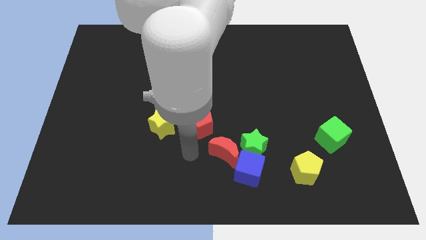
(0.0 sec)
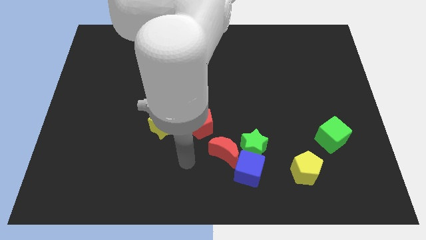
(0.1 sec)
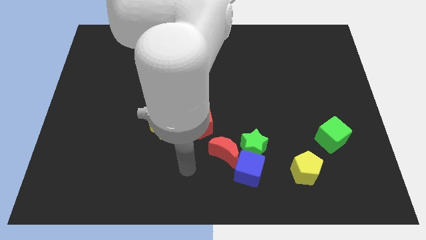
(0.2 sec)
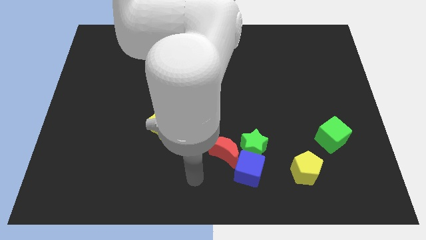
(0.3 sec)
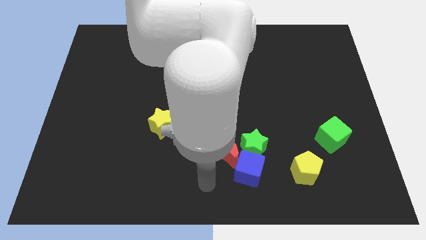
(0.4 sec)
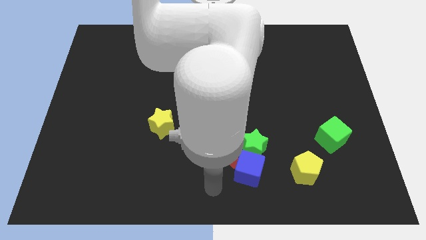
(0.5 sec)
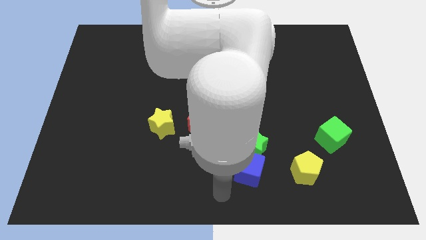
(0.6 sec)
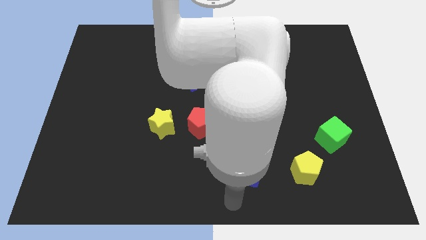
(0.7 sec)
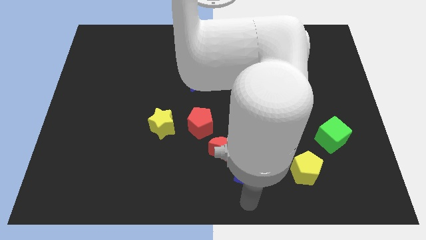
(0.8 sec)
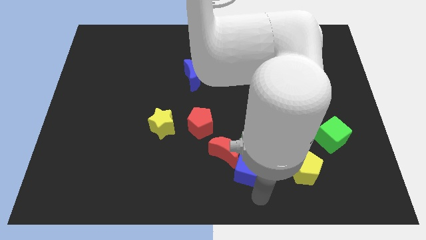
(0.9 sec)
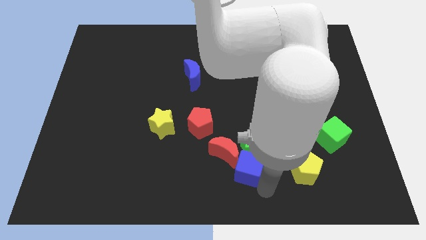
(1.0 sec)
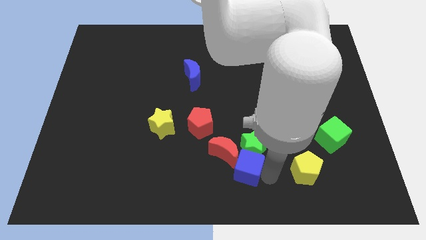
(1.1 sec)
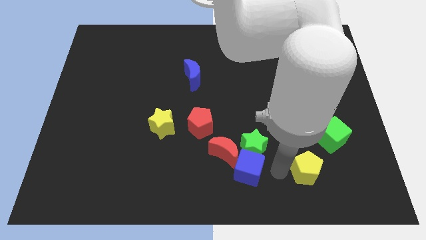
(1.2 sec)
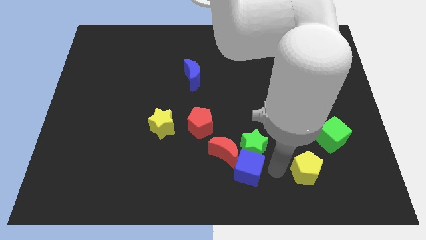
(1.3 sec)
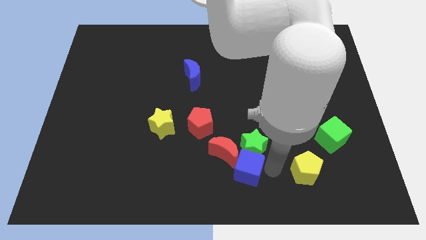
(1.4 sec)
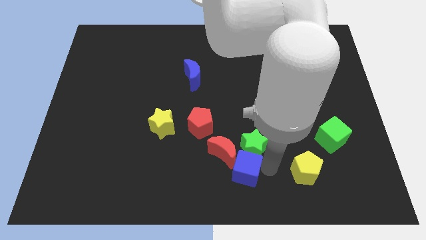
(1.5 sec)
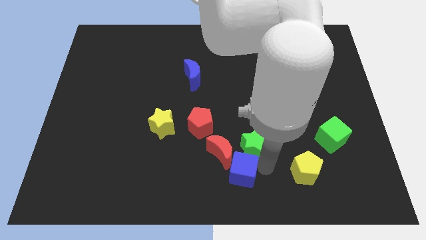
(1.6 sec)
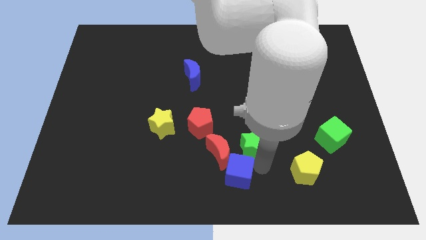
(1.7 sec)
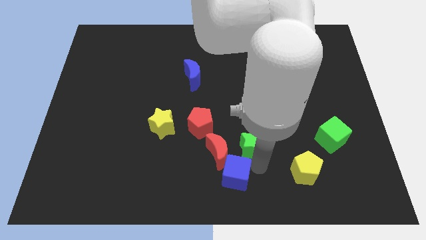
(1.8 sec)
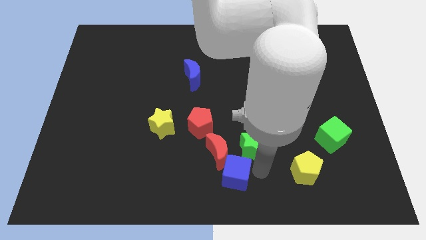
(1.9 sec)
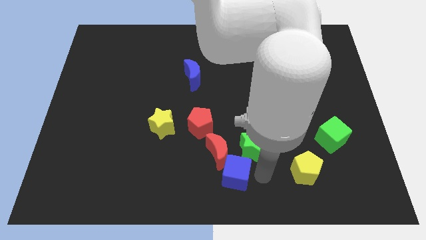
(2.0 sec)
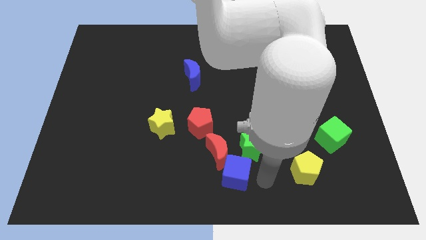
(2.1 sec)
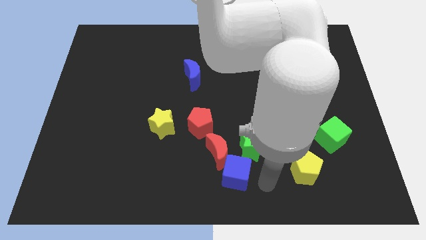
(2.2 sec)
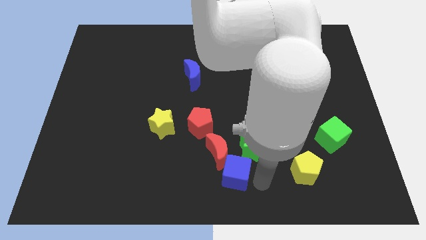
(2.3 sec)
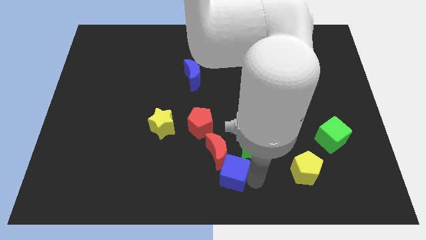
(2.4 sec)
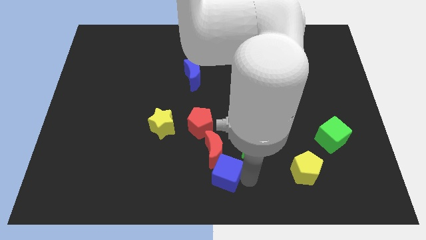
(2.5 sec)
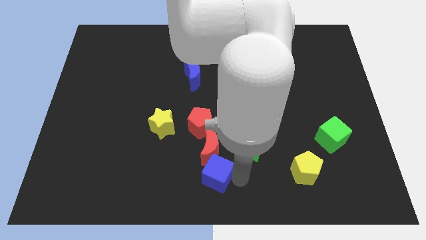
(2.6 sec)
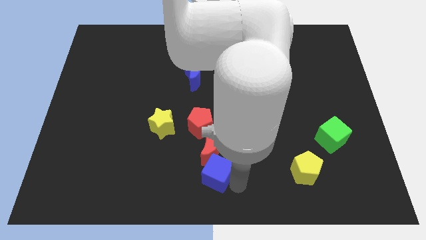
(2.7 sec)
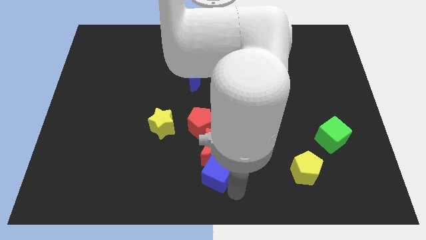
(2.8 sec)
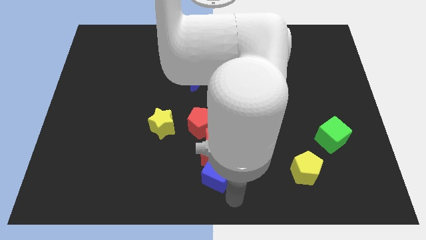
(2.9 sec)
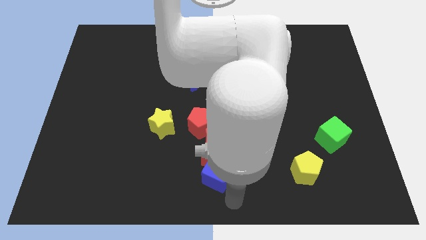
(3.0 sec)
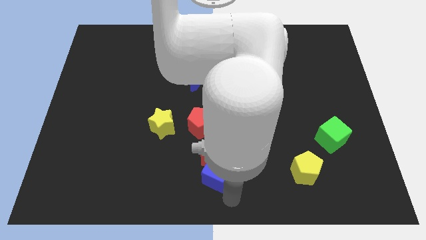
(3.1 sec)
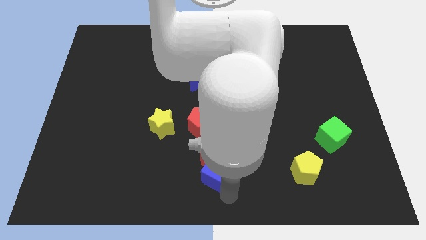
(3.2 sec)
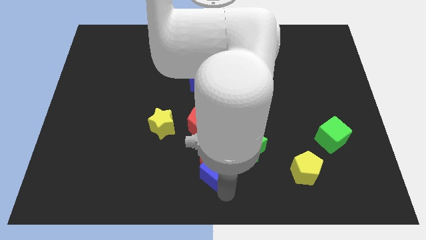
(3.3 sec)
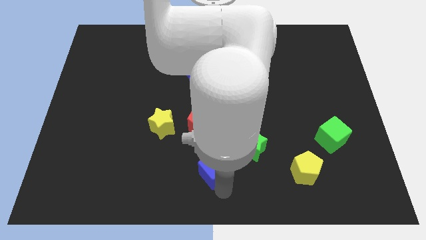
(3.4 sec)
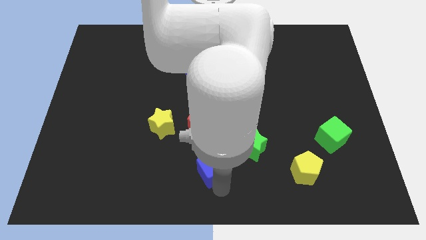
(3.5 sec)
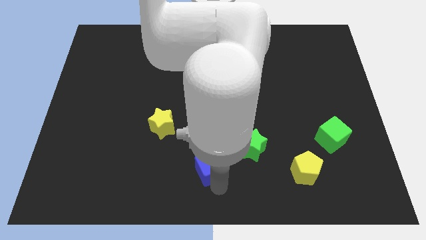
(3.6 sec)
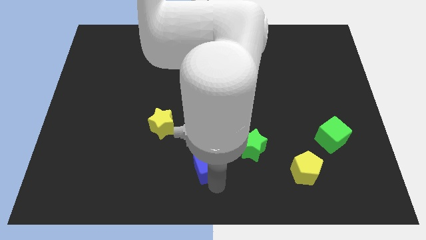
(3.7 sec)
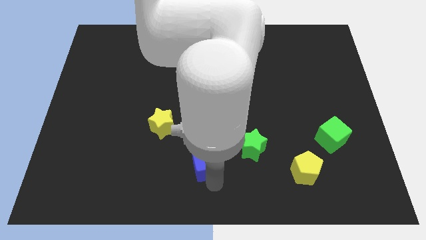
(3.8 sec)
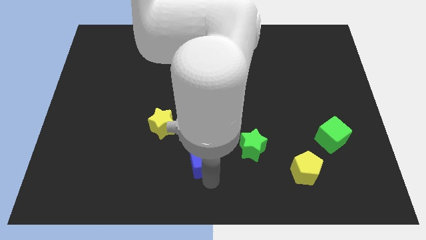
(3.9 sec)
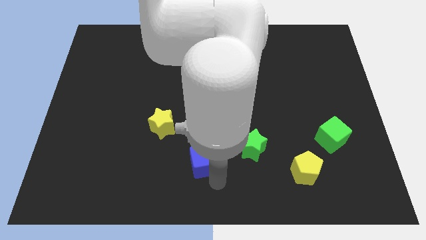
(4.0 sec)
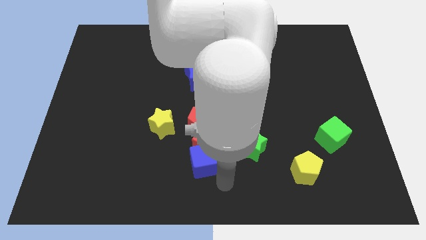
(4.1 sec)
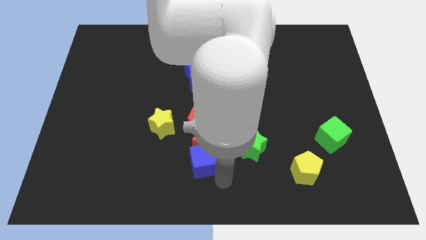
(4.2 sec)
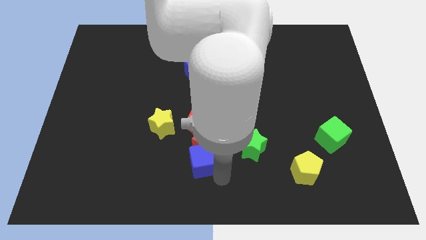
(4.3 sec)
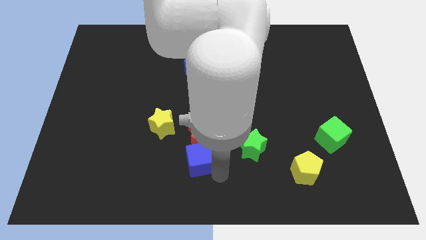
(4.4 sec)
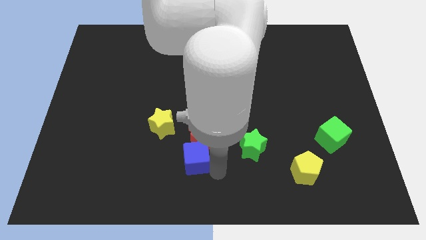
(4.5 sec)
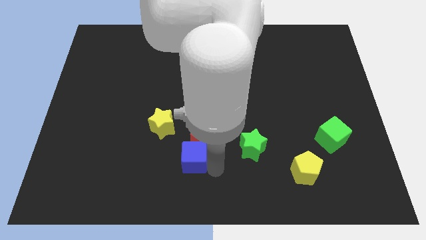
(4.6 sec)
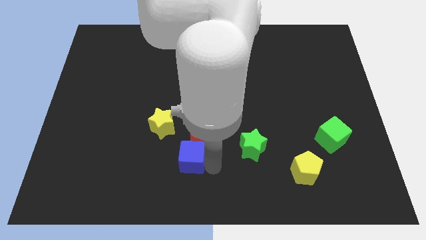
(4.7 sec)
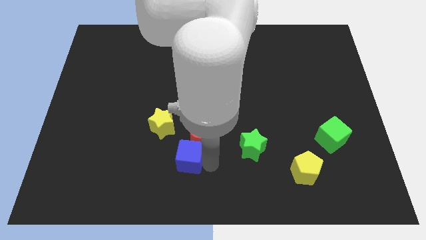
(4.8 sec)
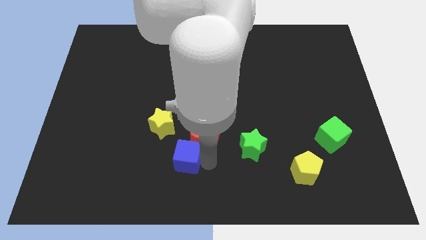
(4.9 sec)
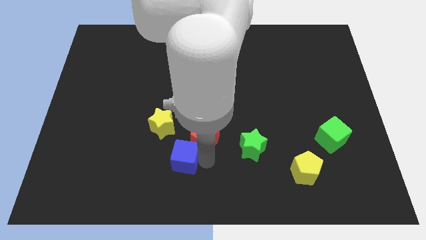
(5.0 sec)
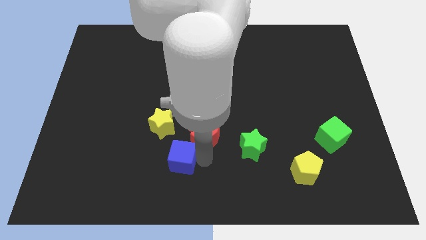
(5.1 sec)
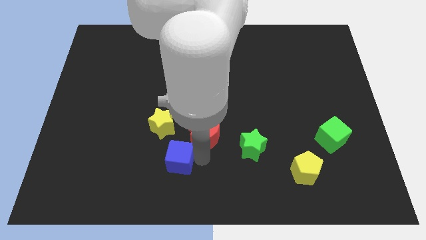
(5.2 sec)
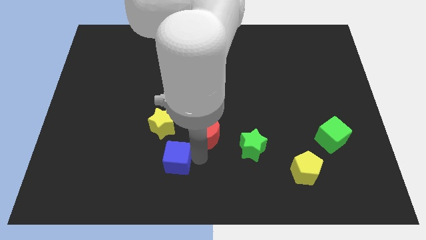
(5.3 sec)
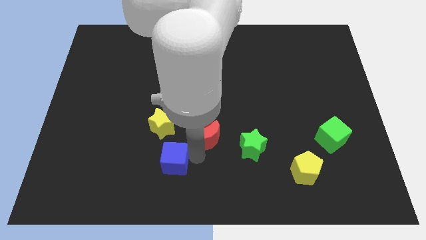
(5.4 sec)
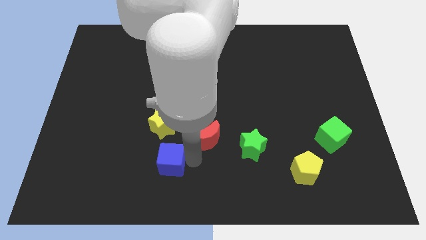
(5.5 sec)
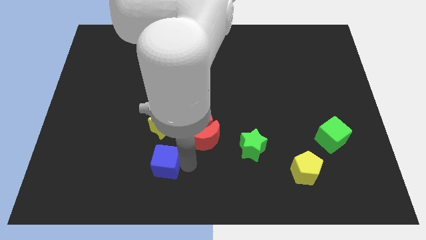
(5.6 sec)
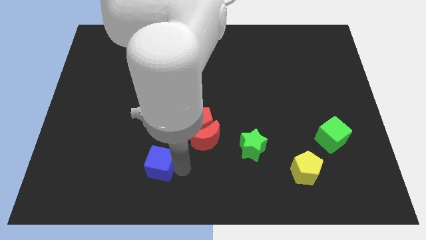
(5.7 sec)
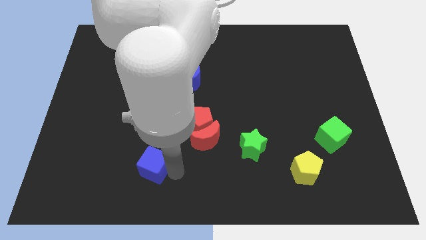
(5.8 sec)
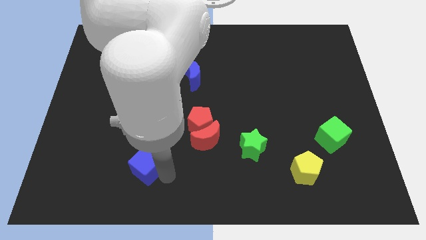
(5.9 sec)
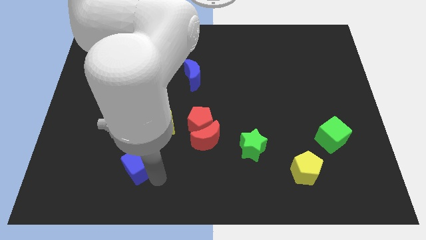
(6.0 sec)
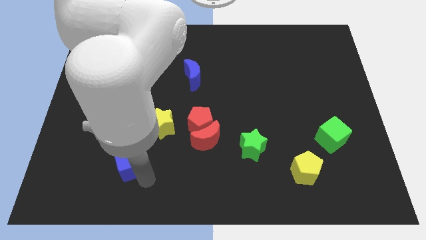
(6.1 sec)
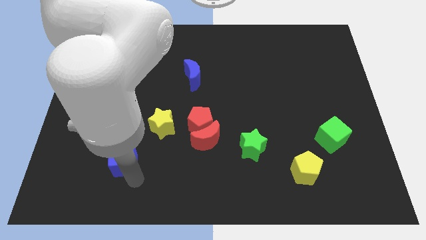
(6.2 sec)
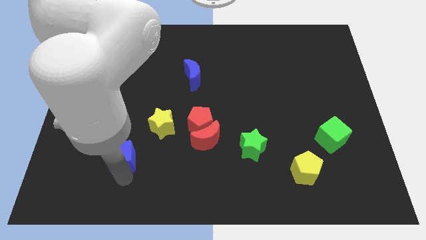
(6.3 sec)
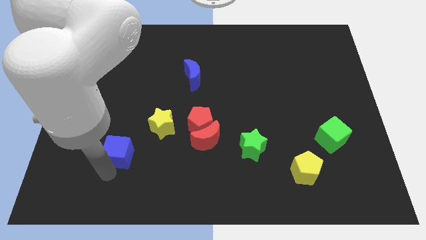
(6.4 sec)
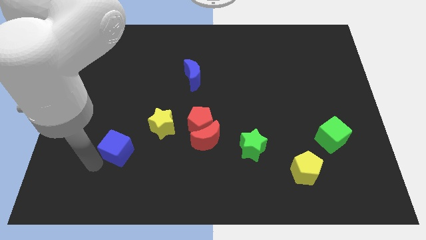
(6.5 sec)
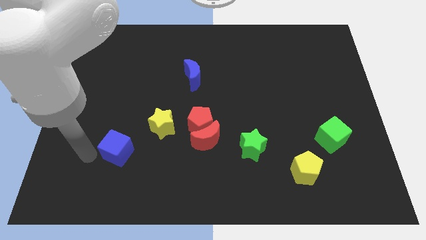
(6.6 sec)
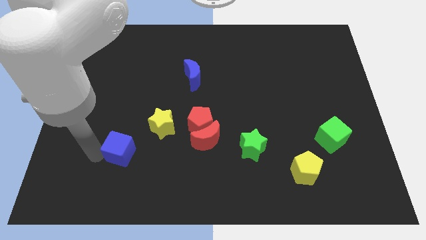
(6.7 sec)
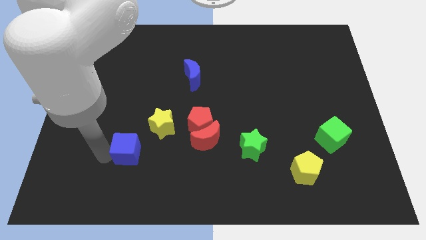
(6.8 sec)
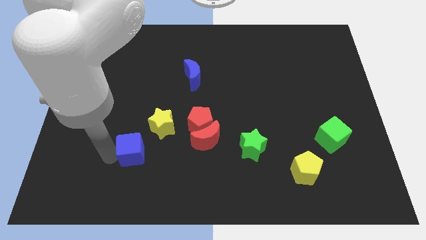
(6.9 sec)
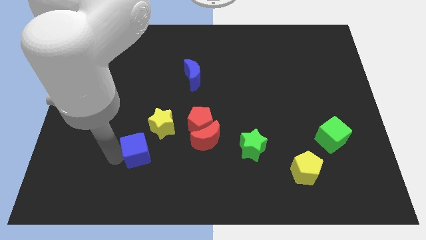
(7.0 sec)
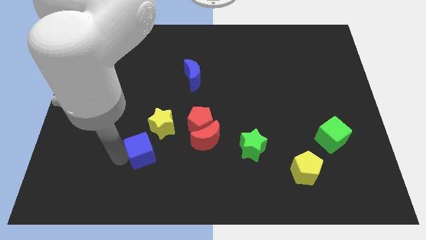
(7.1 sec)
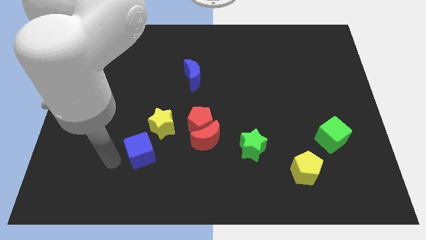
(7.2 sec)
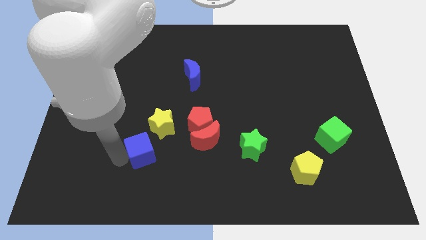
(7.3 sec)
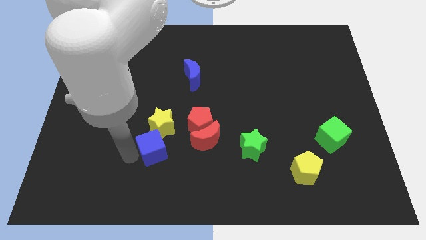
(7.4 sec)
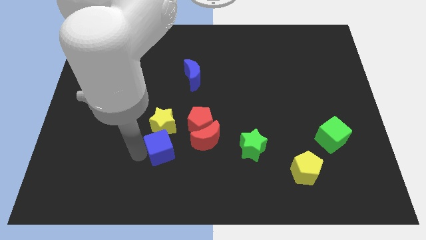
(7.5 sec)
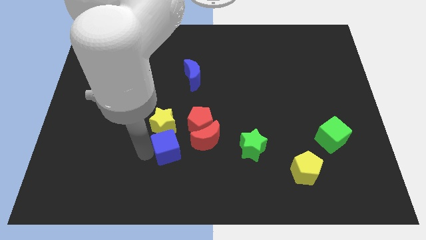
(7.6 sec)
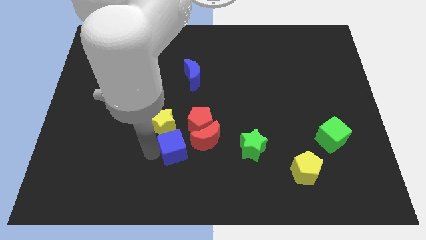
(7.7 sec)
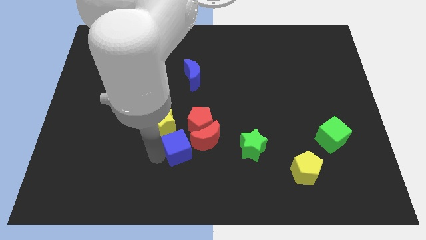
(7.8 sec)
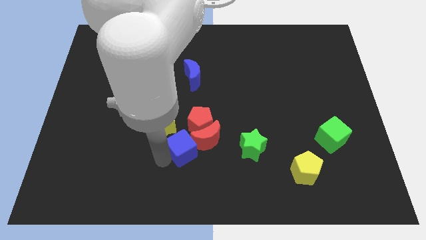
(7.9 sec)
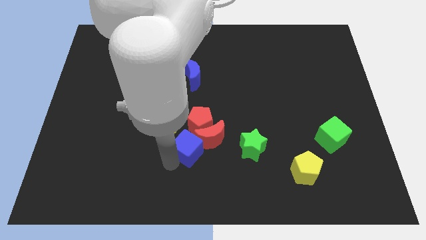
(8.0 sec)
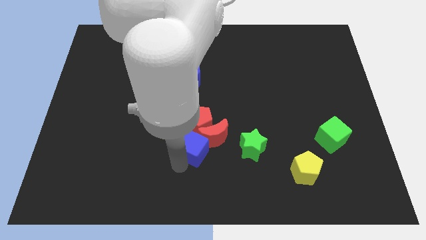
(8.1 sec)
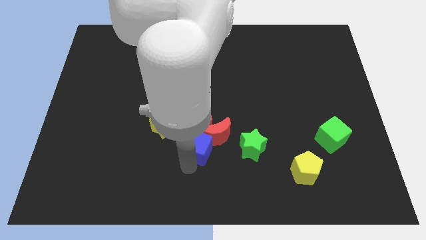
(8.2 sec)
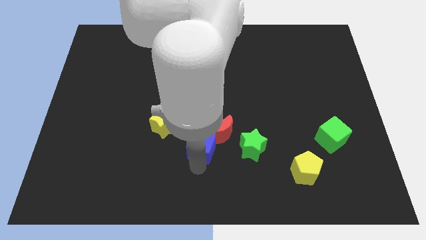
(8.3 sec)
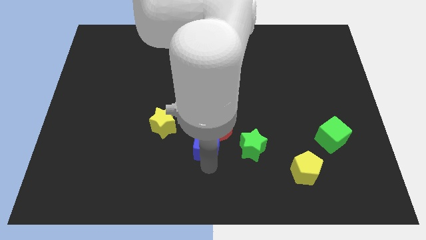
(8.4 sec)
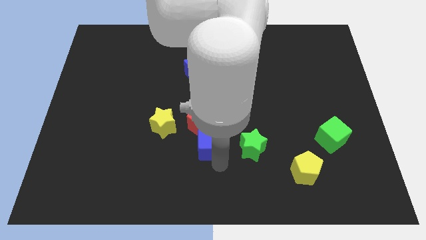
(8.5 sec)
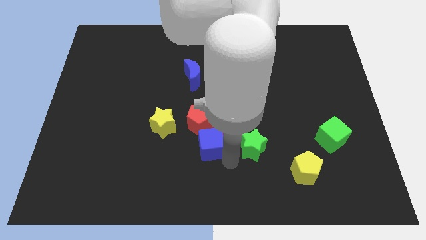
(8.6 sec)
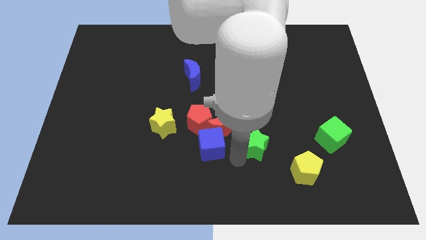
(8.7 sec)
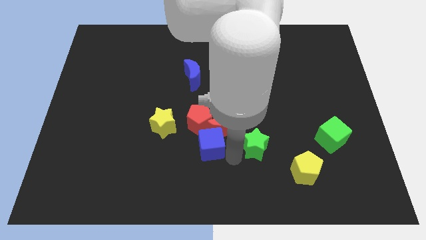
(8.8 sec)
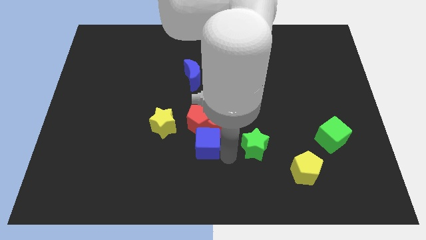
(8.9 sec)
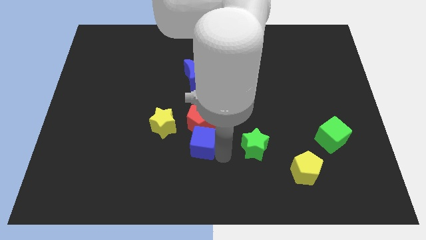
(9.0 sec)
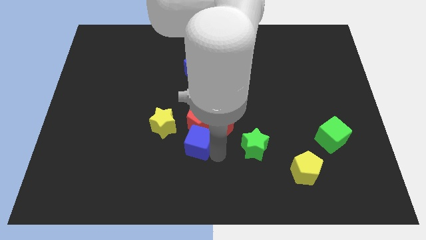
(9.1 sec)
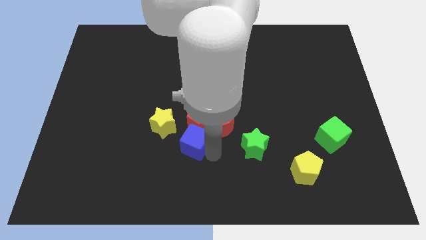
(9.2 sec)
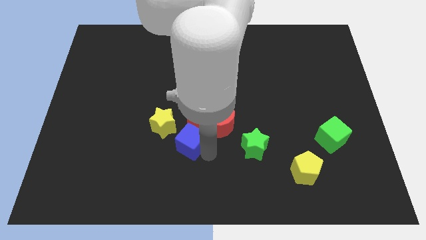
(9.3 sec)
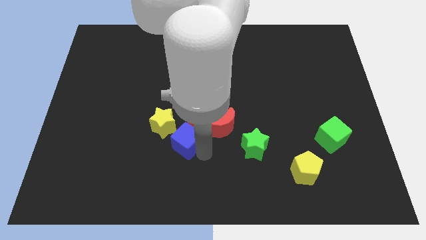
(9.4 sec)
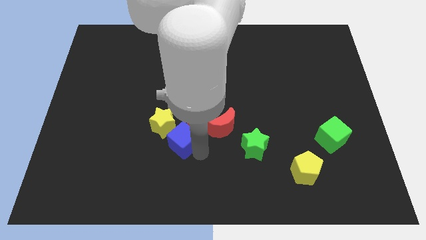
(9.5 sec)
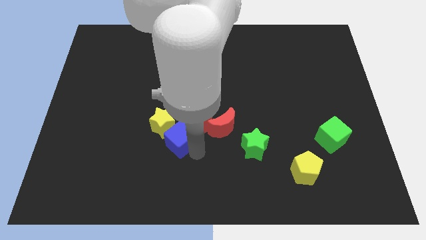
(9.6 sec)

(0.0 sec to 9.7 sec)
slide the blue cube to the yellow star
